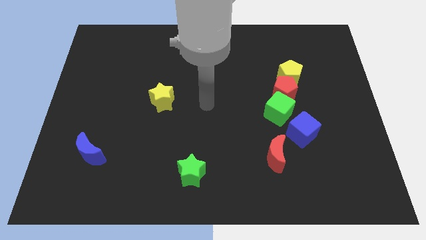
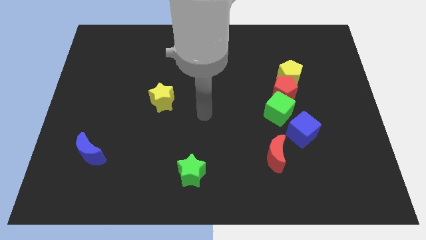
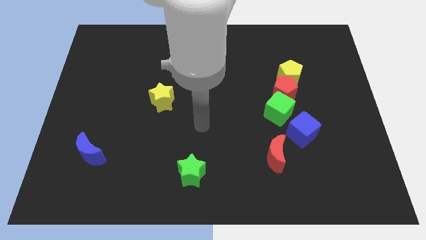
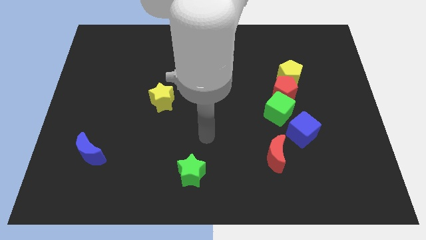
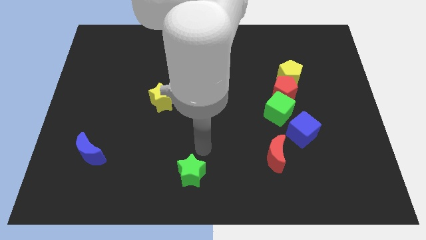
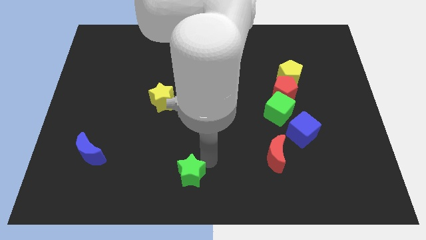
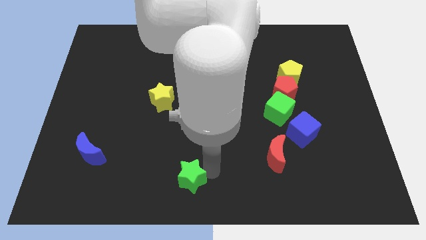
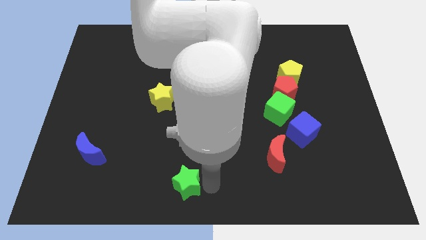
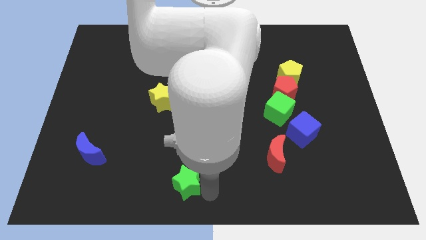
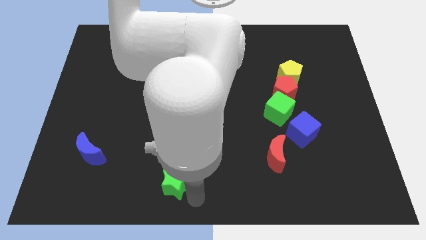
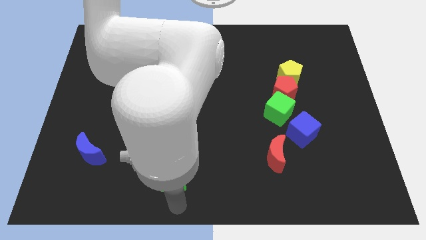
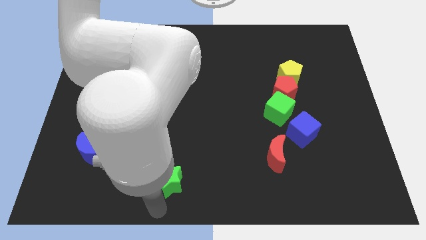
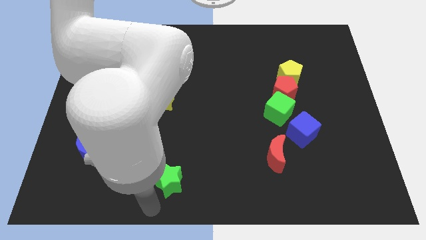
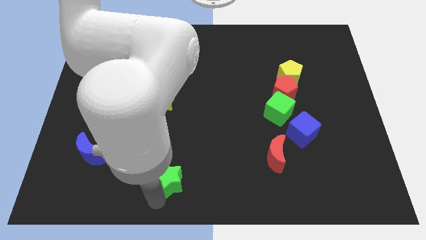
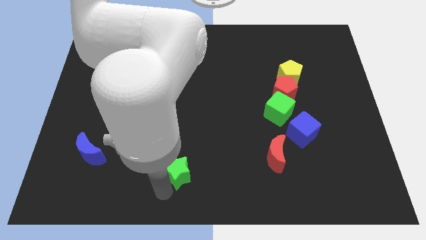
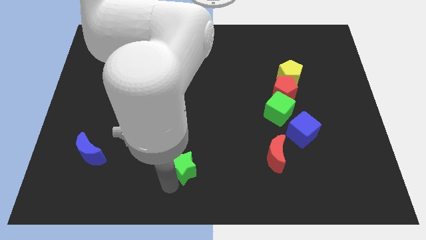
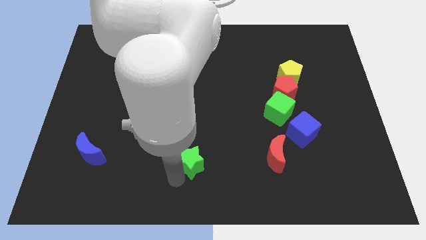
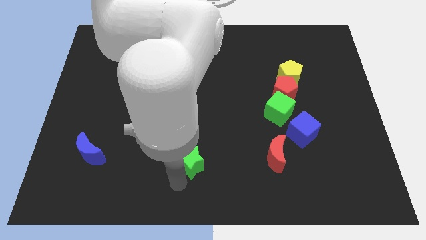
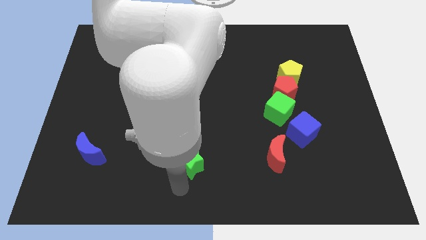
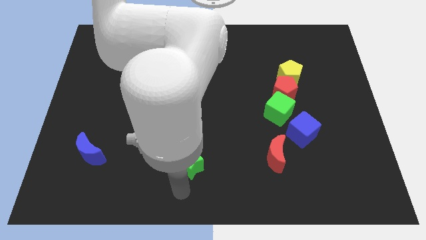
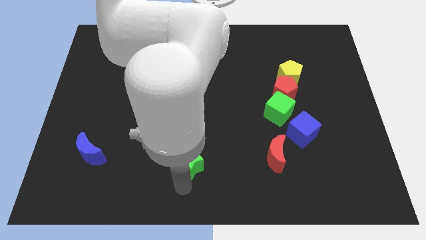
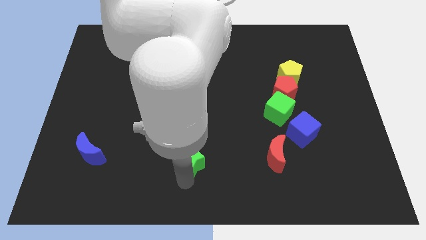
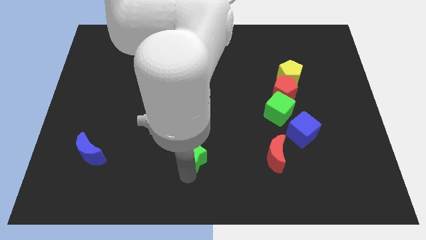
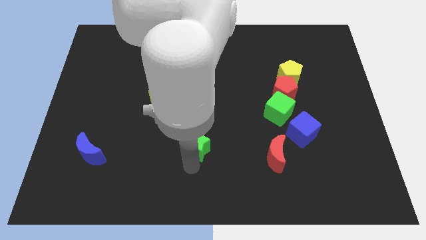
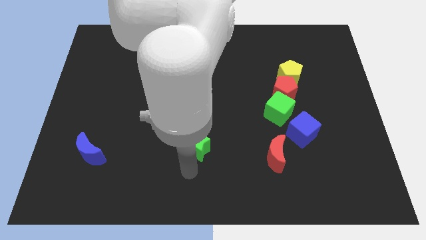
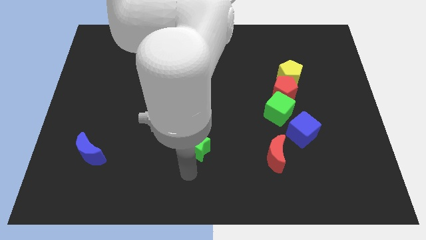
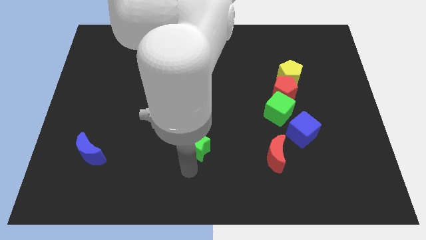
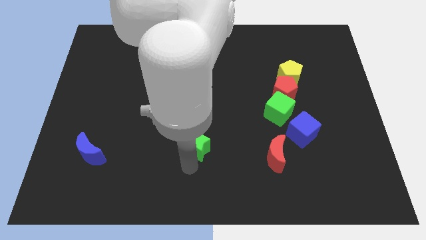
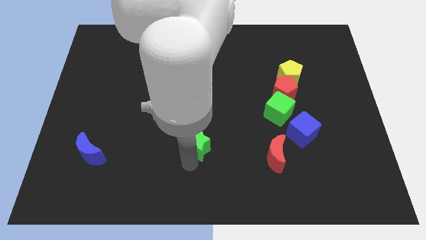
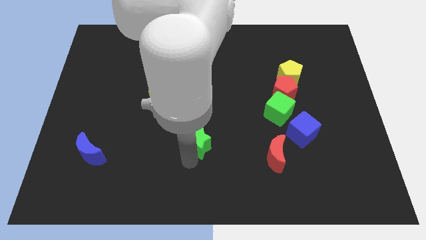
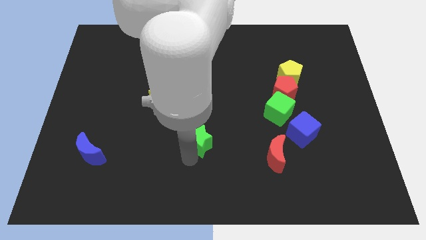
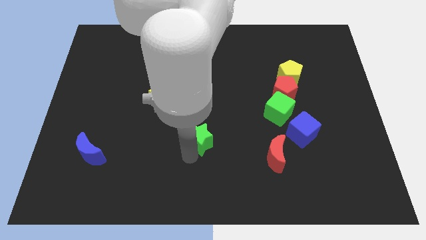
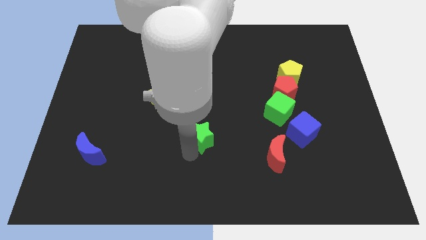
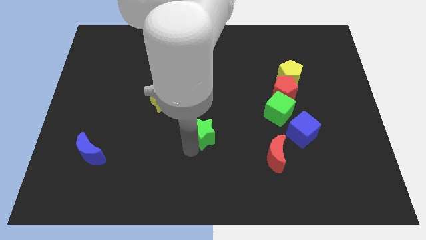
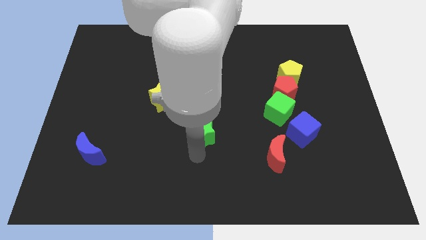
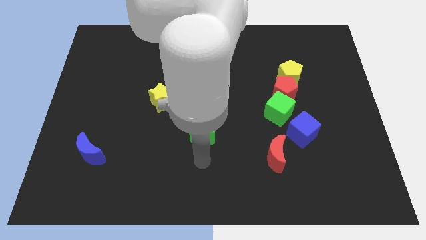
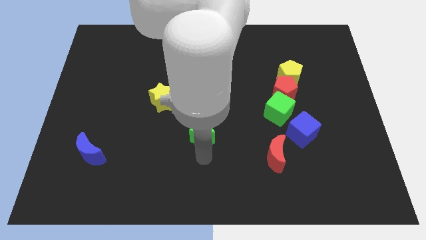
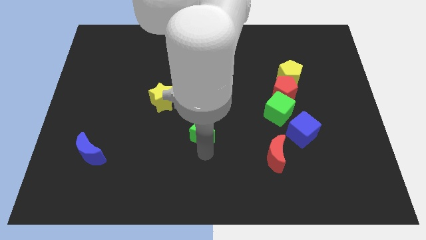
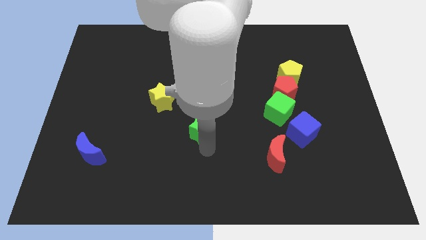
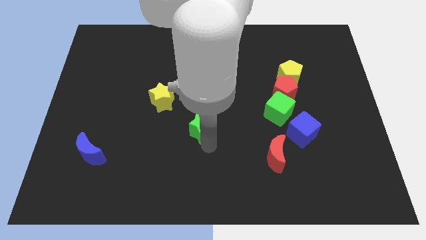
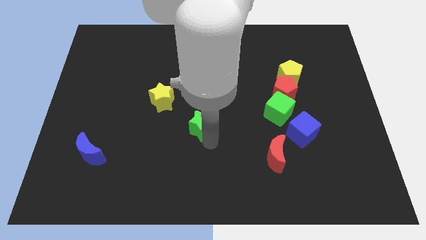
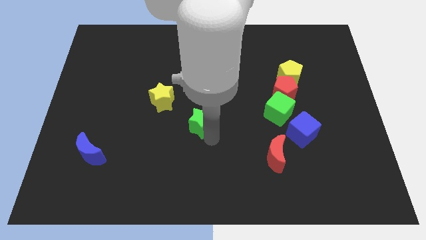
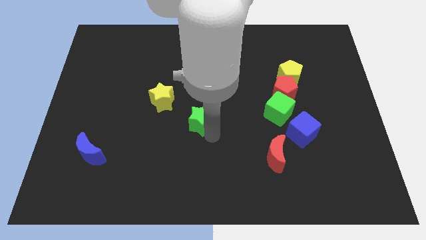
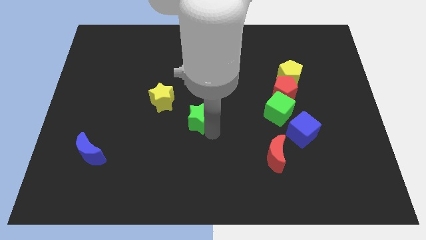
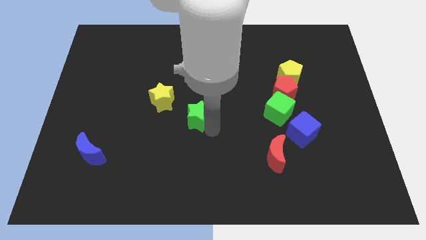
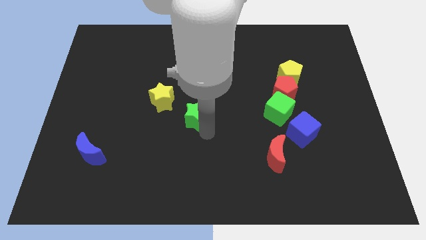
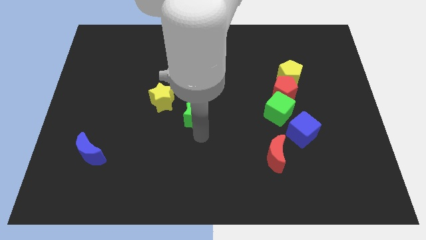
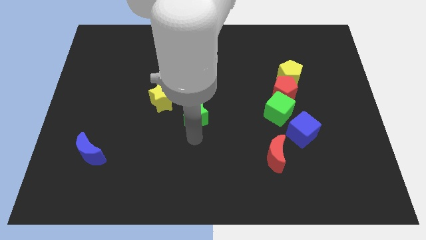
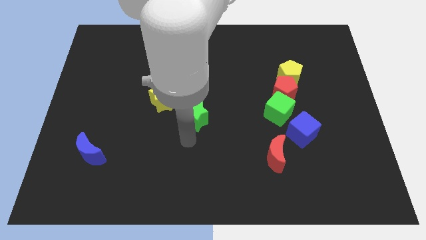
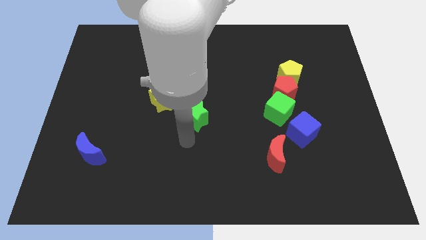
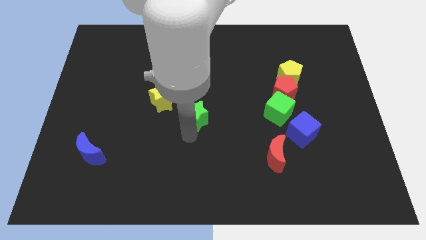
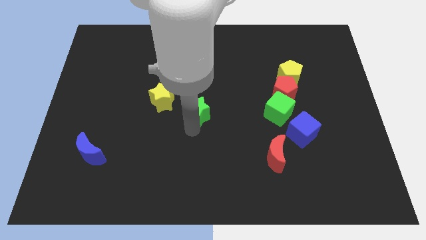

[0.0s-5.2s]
slide the green star just right of the yellow star

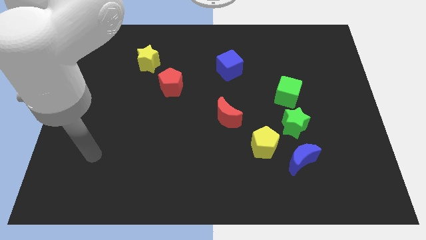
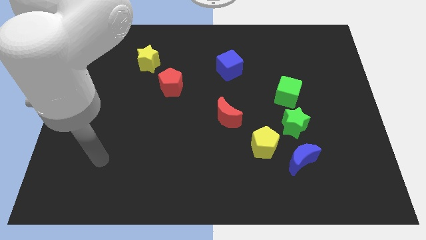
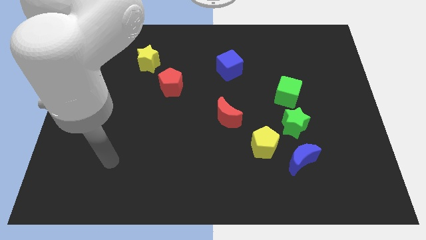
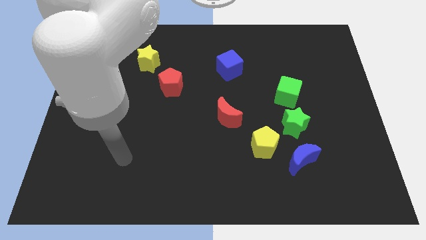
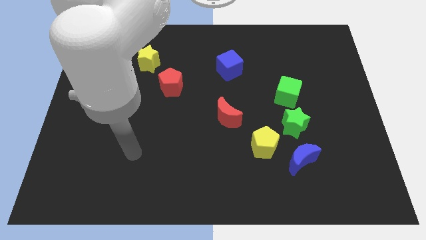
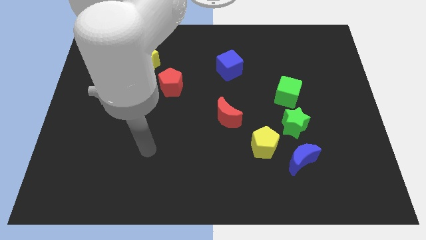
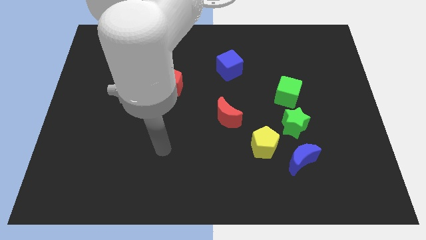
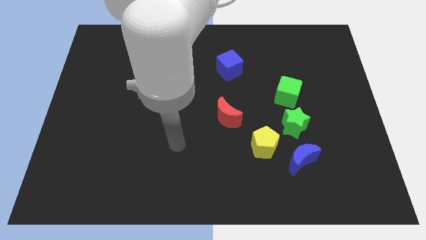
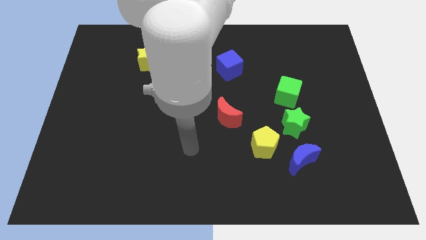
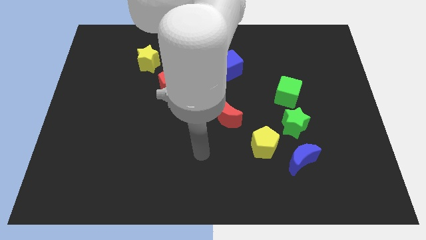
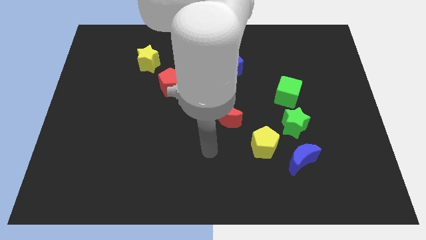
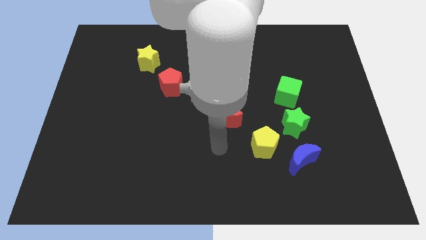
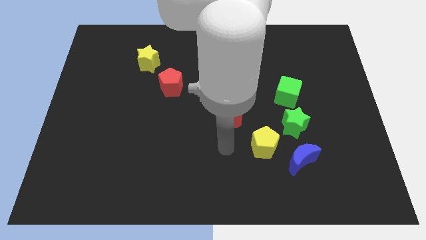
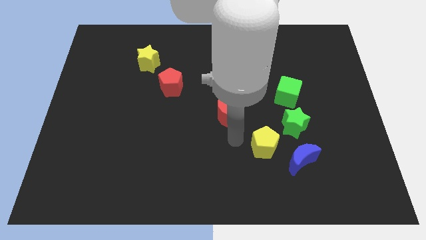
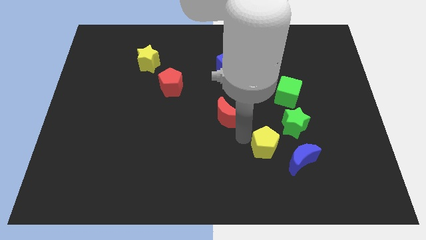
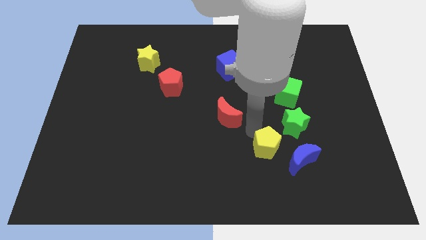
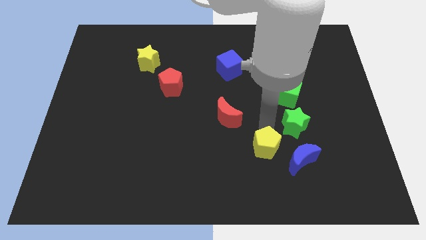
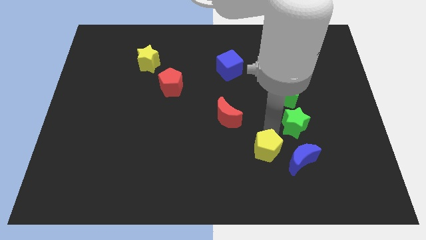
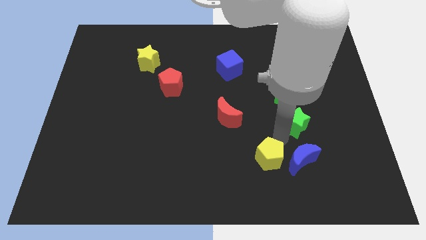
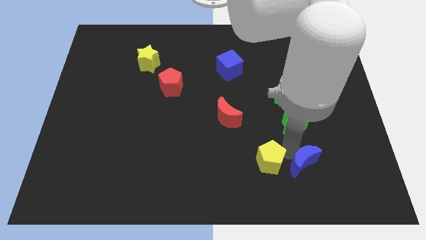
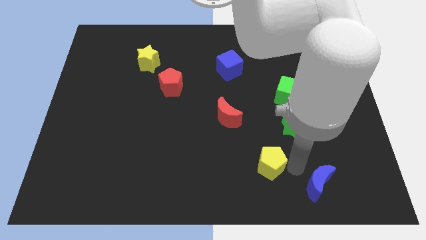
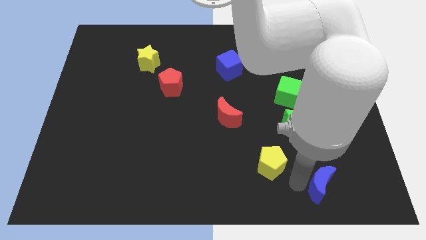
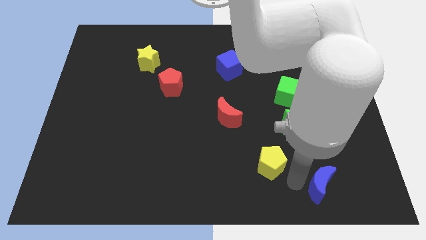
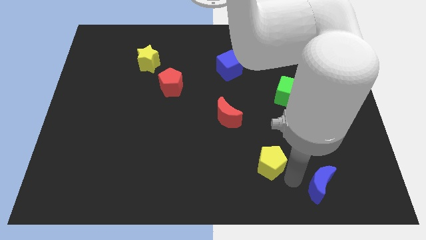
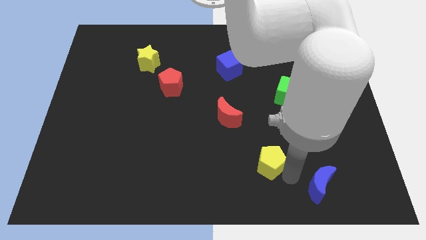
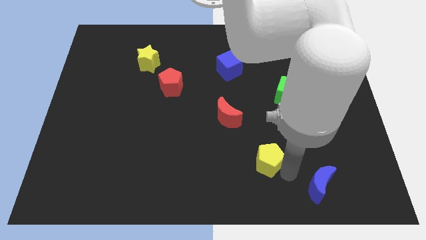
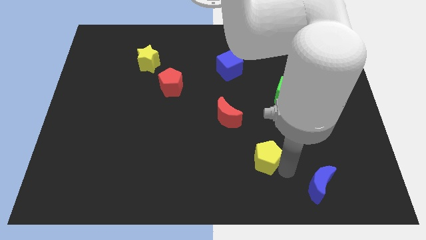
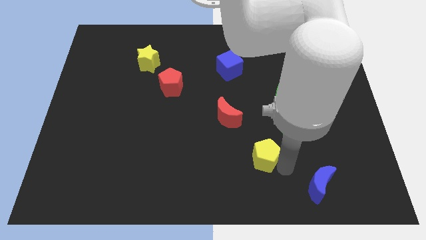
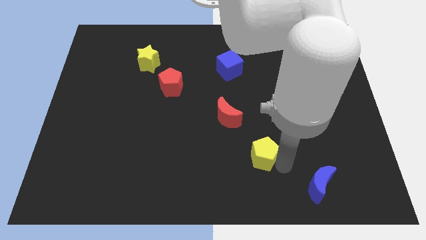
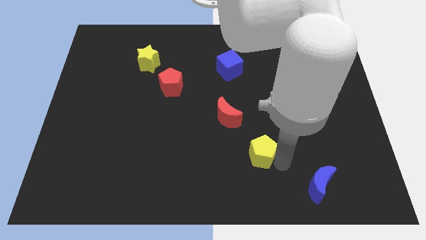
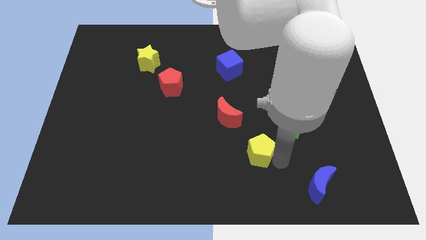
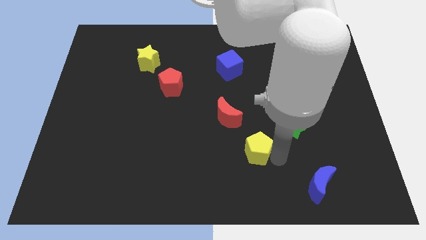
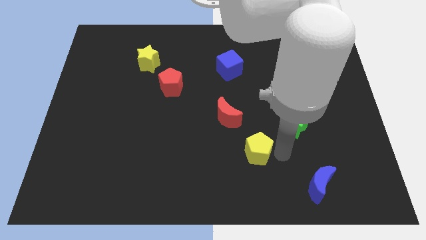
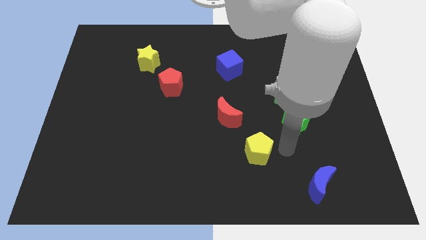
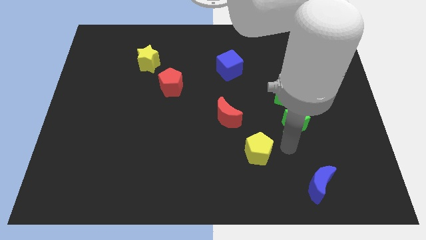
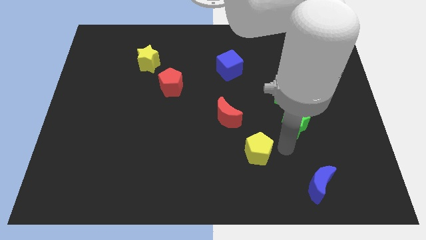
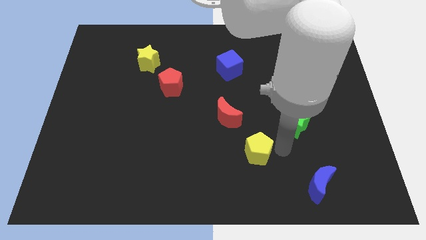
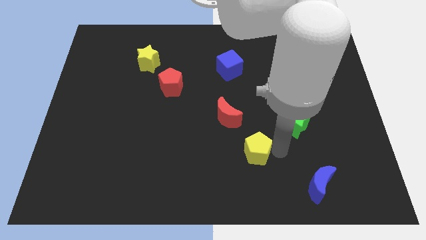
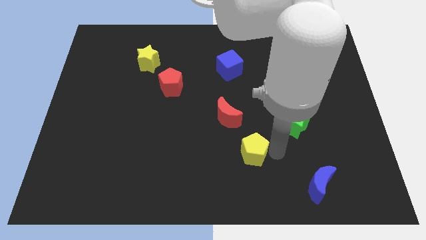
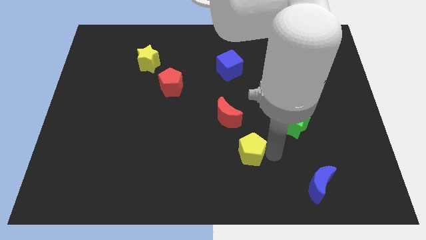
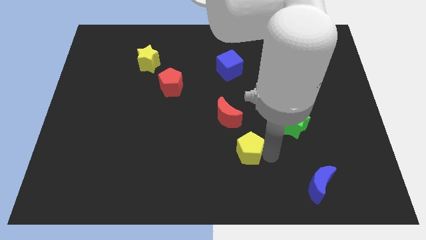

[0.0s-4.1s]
push the yellow pentagon below the red moon
